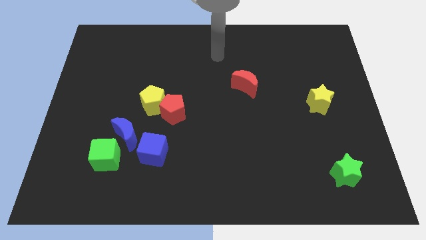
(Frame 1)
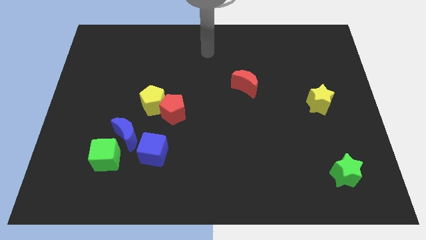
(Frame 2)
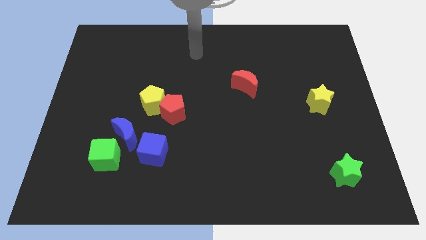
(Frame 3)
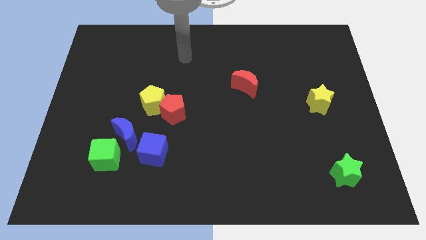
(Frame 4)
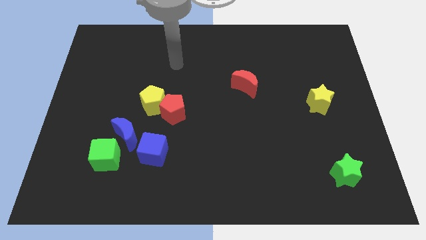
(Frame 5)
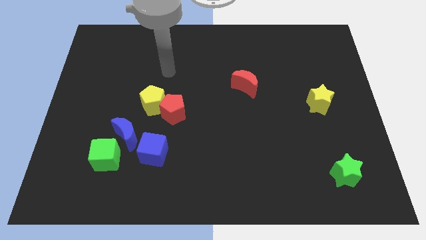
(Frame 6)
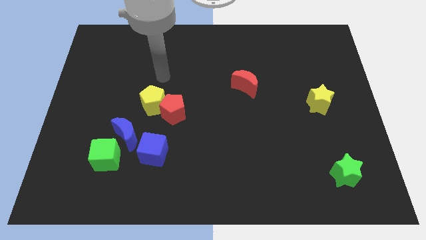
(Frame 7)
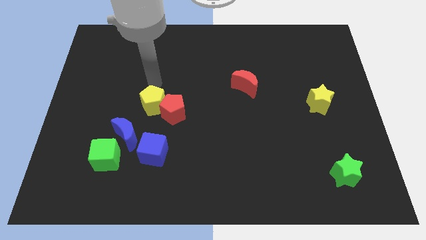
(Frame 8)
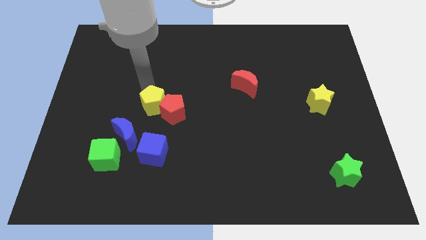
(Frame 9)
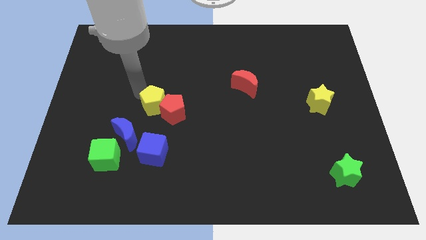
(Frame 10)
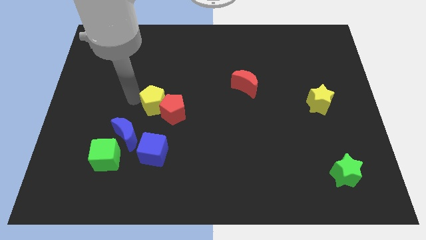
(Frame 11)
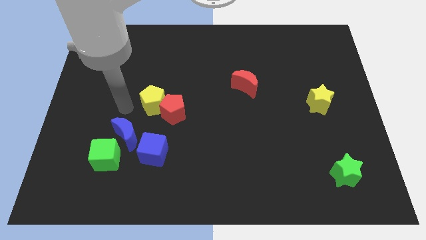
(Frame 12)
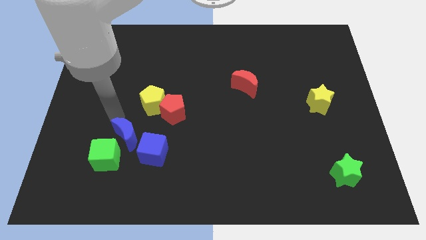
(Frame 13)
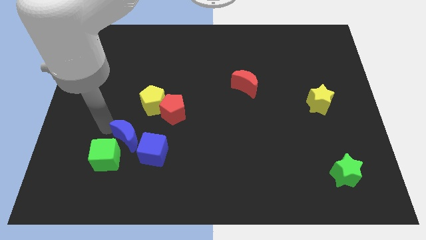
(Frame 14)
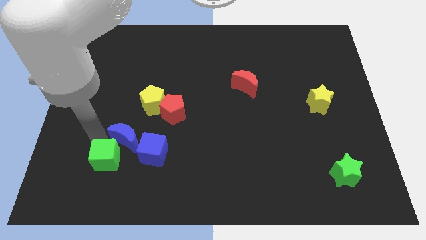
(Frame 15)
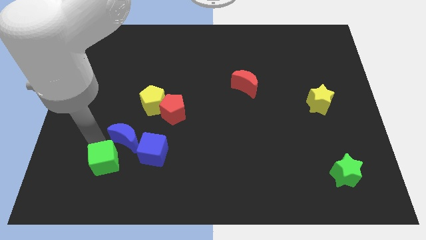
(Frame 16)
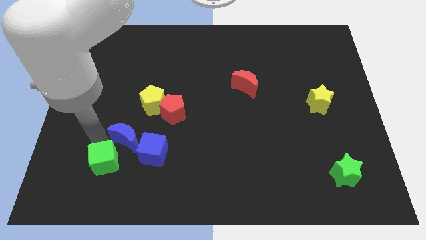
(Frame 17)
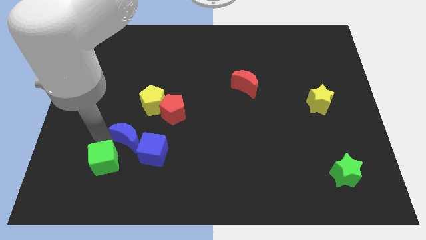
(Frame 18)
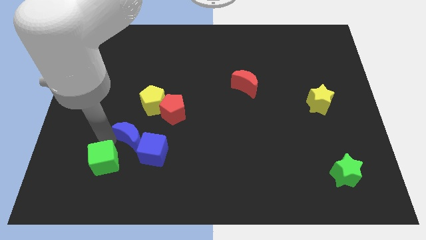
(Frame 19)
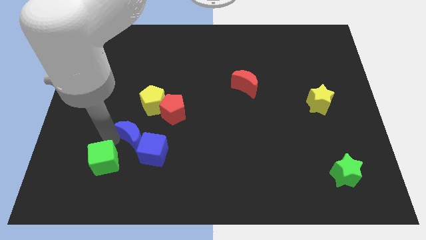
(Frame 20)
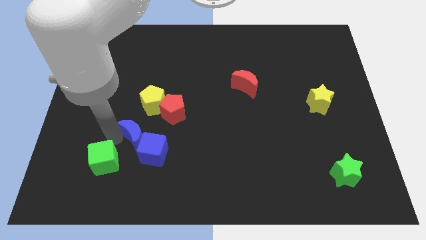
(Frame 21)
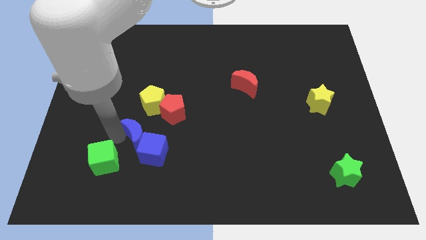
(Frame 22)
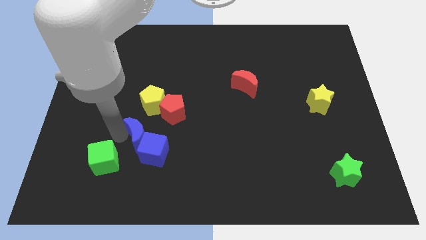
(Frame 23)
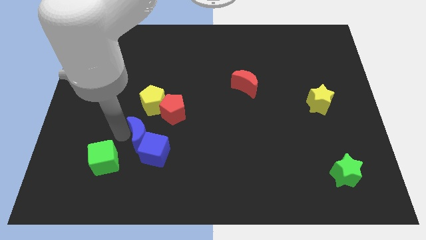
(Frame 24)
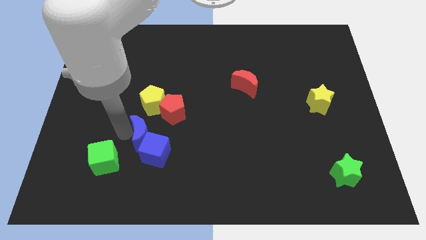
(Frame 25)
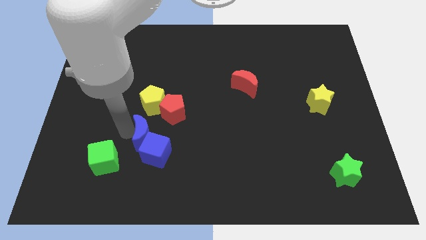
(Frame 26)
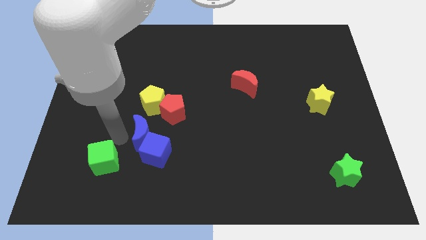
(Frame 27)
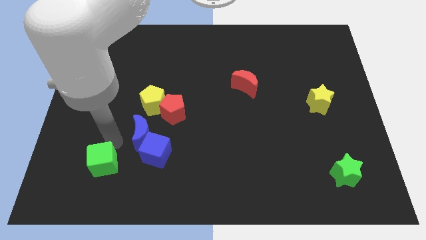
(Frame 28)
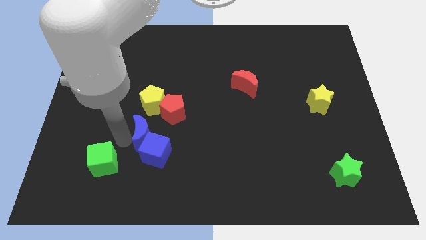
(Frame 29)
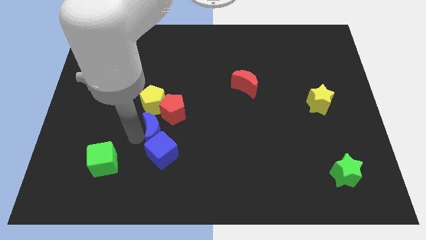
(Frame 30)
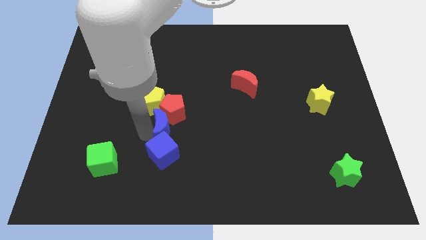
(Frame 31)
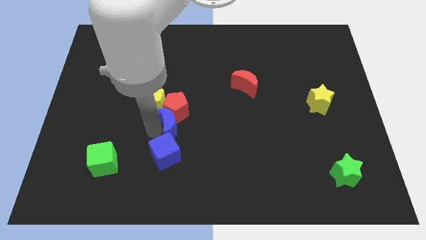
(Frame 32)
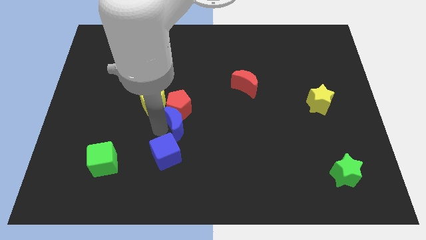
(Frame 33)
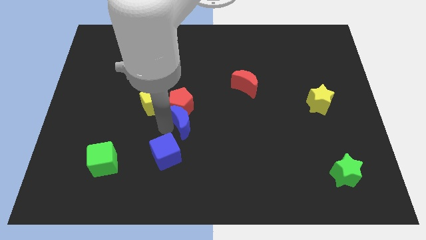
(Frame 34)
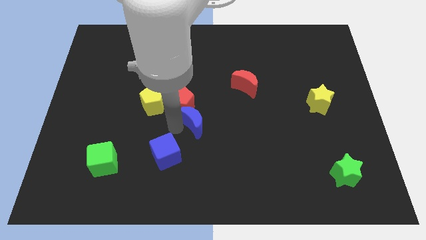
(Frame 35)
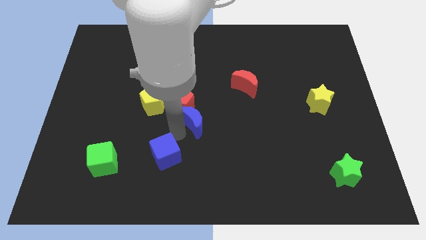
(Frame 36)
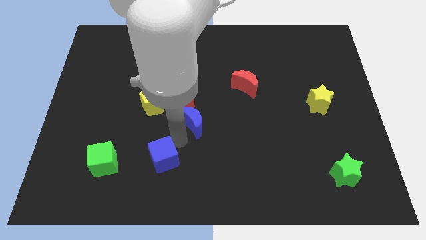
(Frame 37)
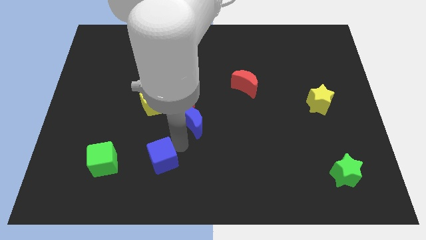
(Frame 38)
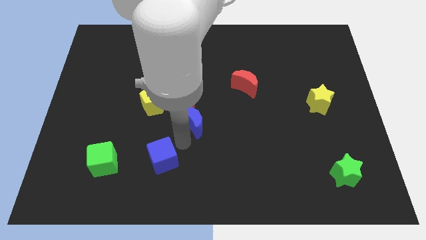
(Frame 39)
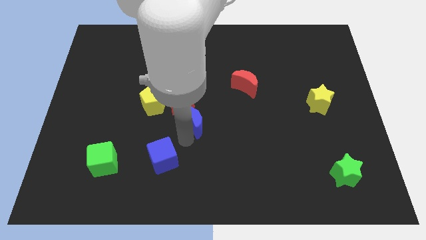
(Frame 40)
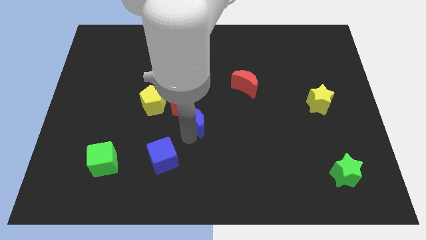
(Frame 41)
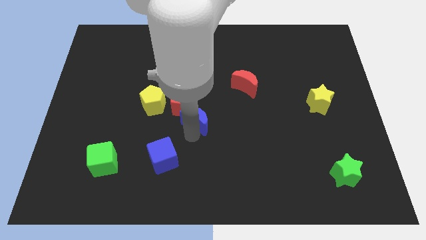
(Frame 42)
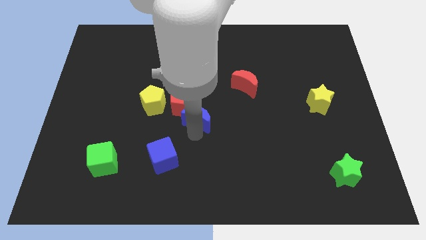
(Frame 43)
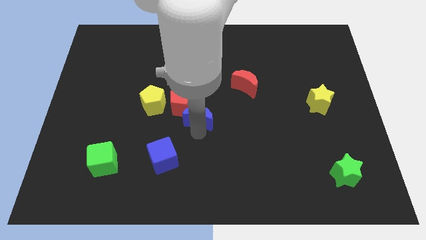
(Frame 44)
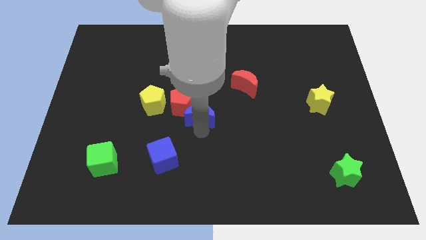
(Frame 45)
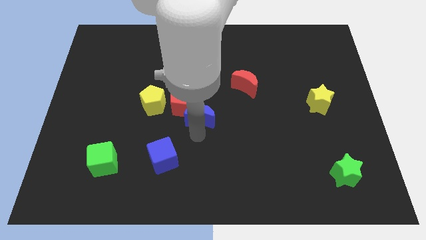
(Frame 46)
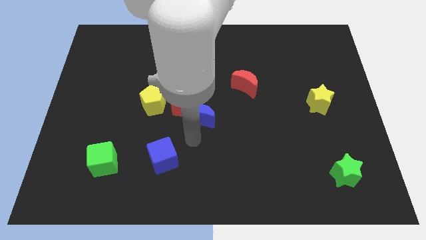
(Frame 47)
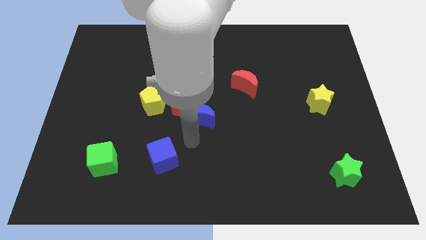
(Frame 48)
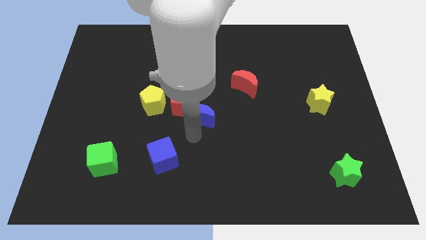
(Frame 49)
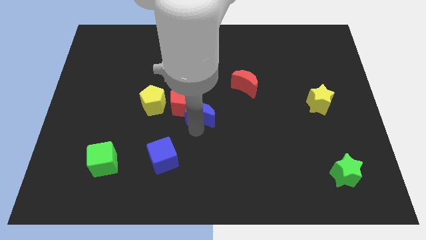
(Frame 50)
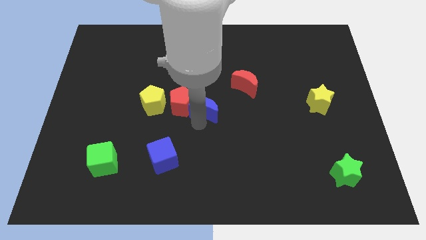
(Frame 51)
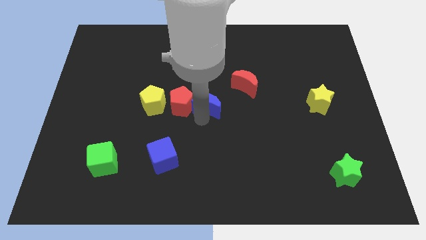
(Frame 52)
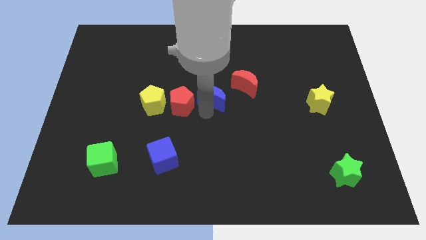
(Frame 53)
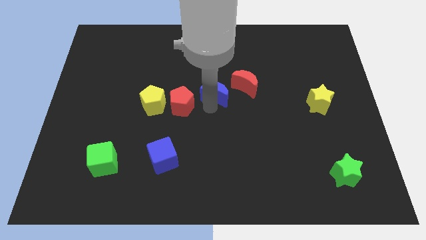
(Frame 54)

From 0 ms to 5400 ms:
move the blue moon diagonally up and right

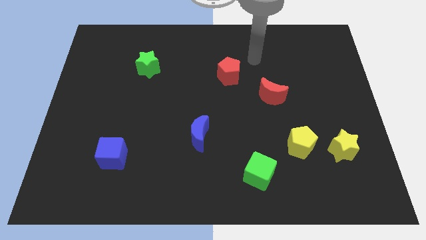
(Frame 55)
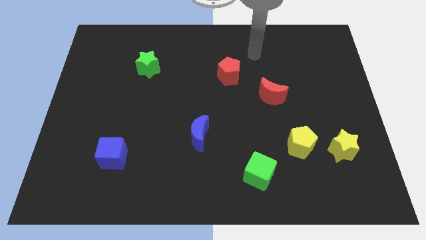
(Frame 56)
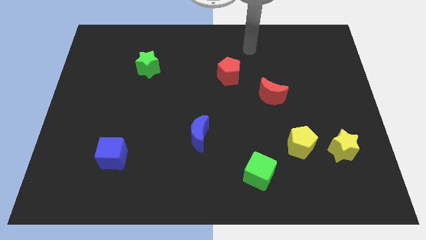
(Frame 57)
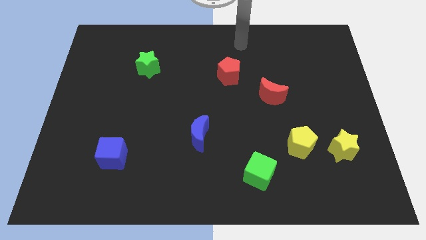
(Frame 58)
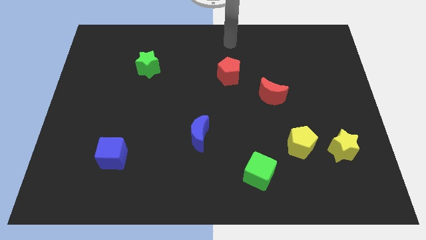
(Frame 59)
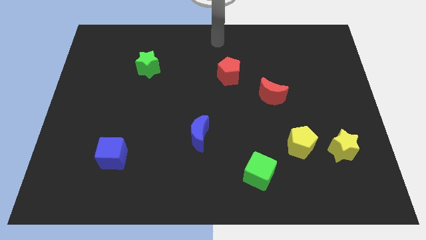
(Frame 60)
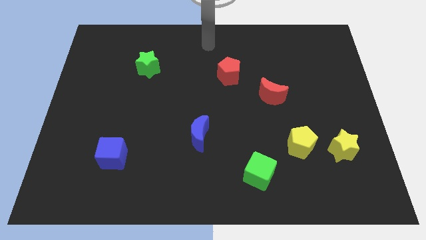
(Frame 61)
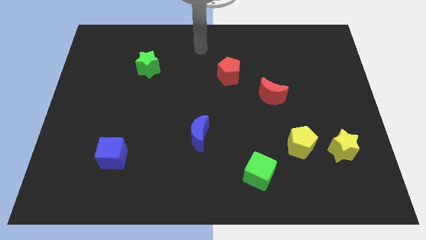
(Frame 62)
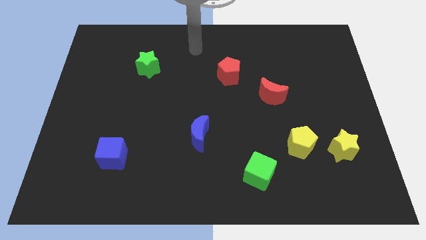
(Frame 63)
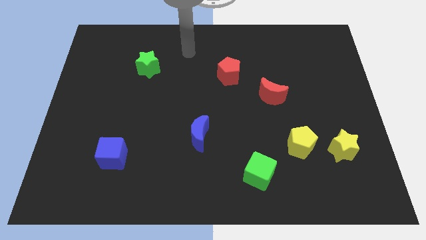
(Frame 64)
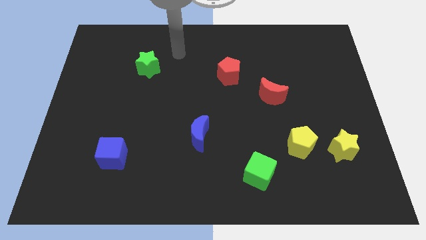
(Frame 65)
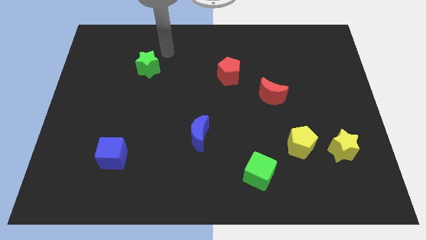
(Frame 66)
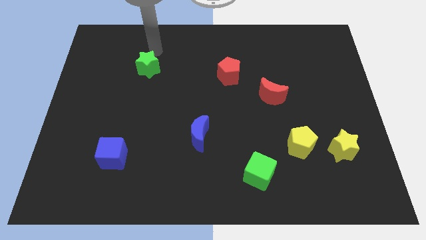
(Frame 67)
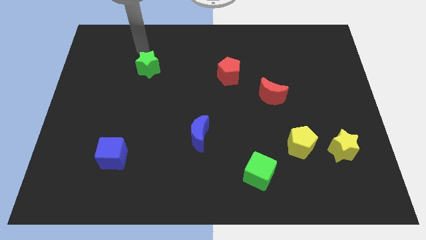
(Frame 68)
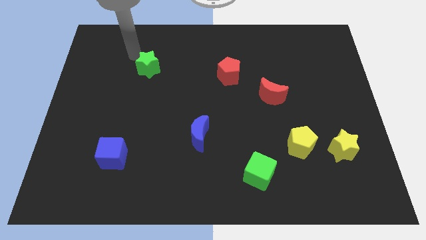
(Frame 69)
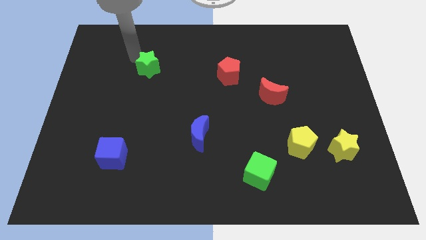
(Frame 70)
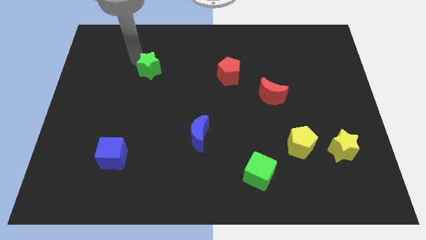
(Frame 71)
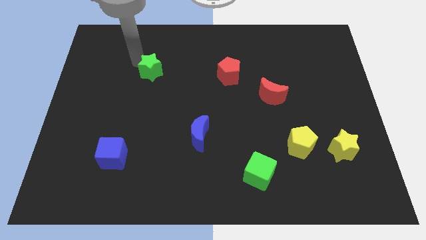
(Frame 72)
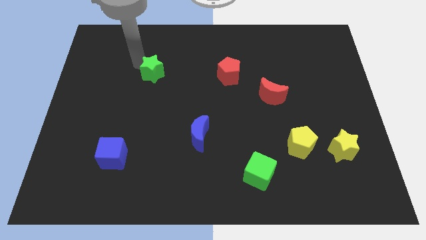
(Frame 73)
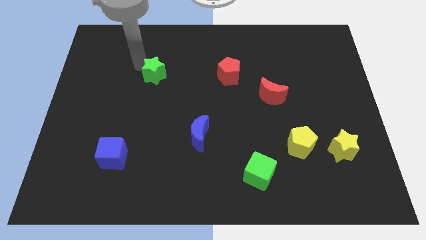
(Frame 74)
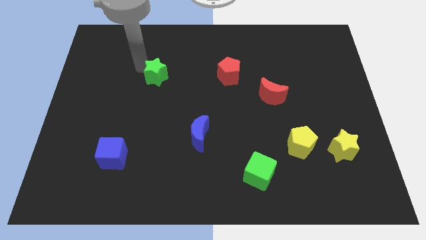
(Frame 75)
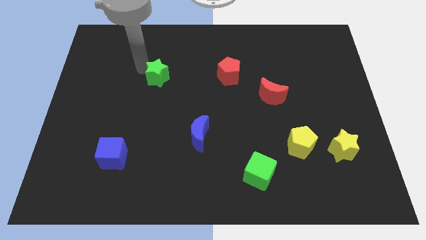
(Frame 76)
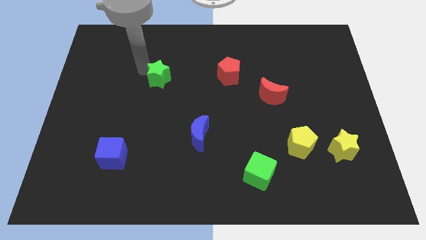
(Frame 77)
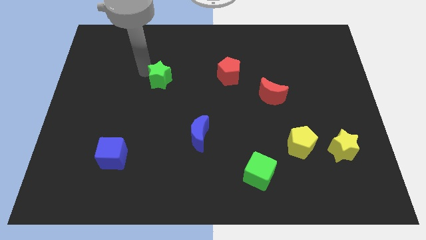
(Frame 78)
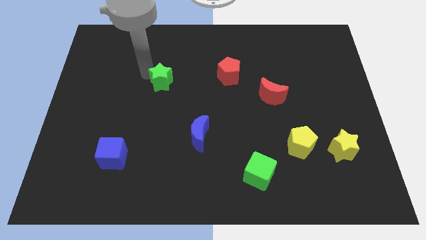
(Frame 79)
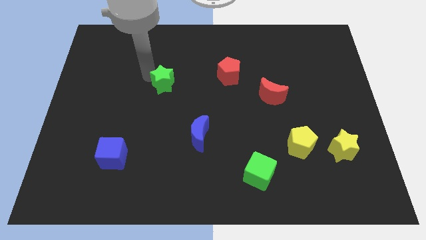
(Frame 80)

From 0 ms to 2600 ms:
slide the green star downwards and to the right diagonally slightly
